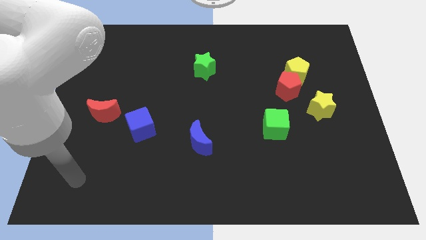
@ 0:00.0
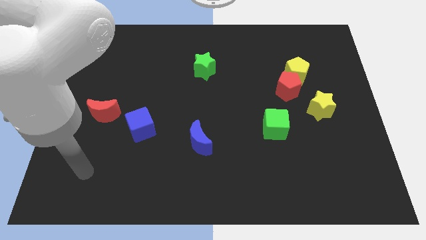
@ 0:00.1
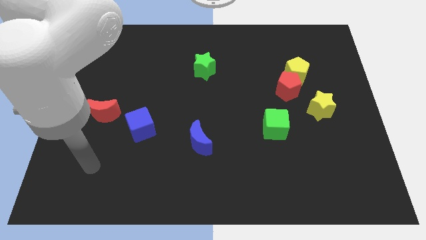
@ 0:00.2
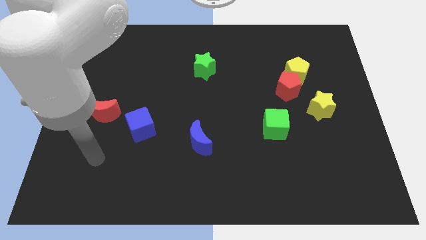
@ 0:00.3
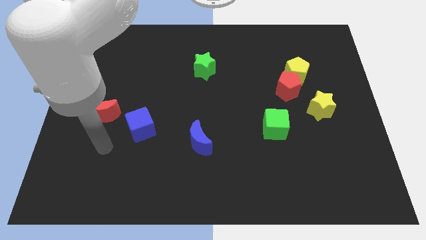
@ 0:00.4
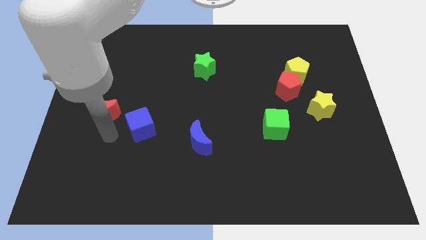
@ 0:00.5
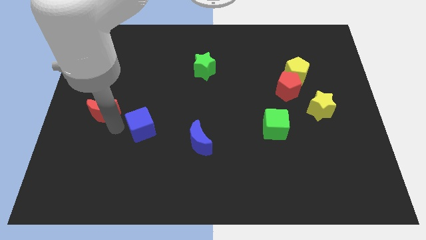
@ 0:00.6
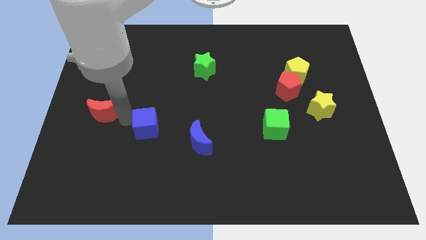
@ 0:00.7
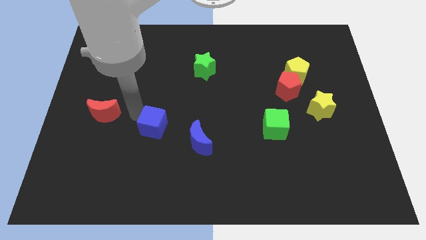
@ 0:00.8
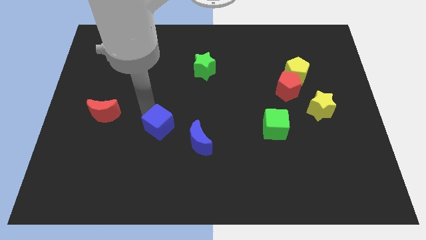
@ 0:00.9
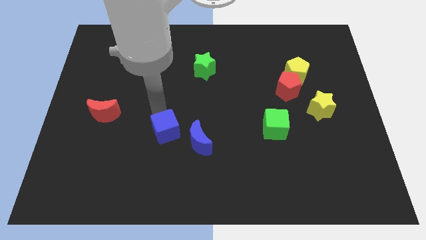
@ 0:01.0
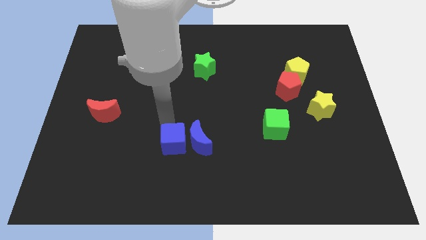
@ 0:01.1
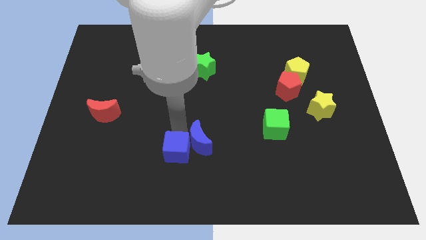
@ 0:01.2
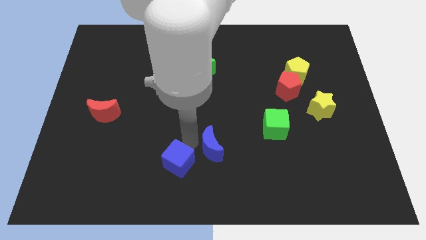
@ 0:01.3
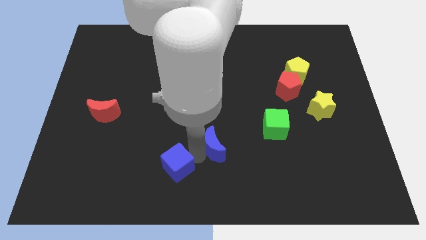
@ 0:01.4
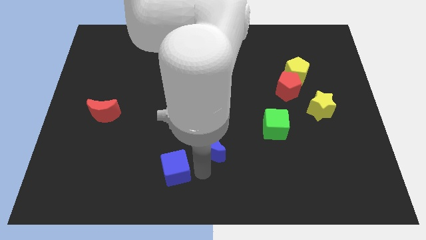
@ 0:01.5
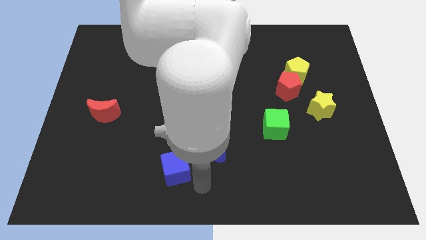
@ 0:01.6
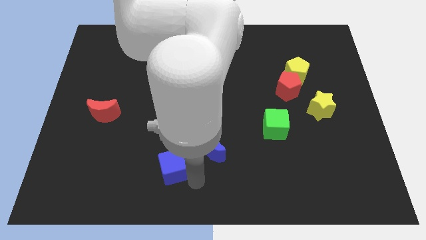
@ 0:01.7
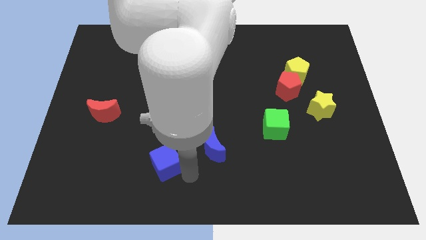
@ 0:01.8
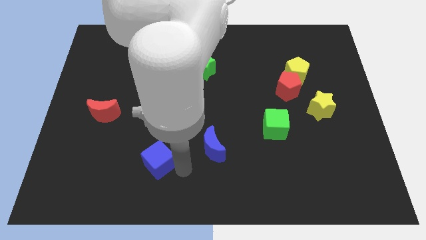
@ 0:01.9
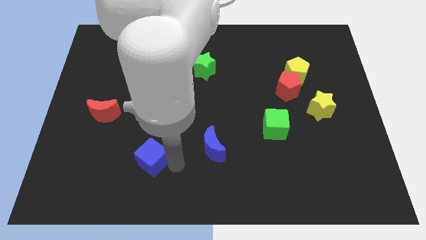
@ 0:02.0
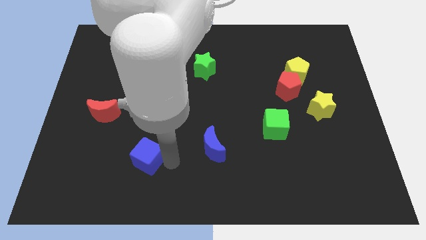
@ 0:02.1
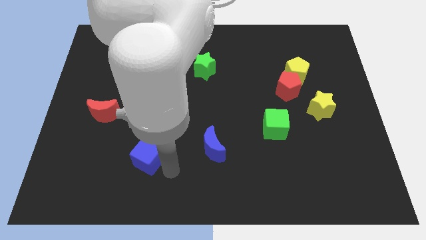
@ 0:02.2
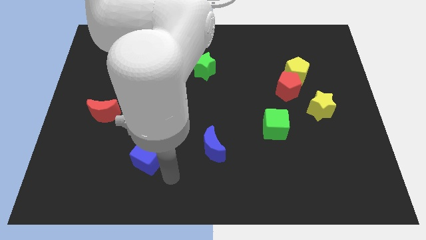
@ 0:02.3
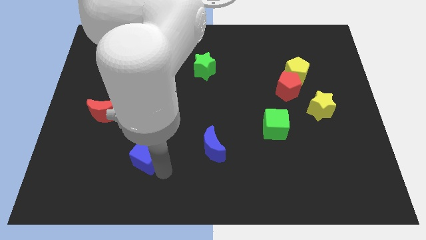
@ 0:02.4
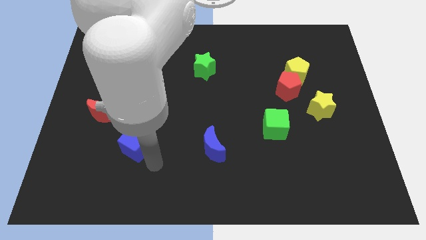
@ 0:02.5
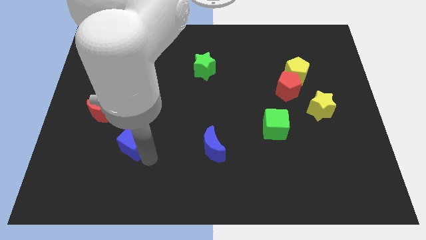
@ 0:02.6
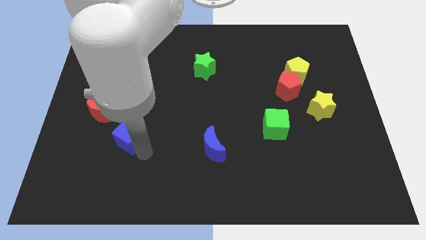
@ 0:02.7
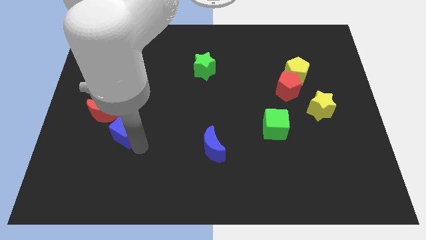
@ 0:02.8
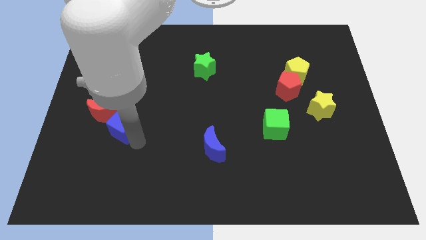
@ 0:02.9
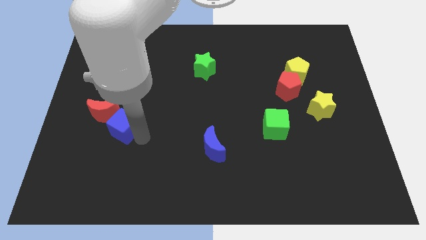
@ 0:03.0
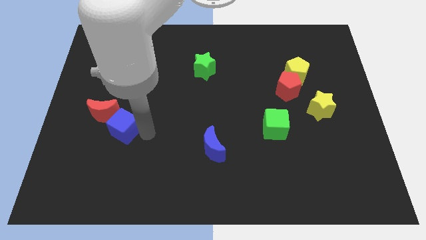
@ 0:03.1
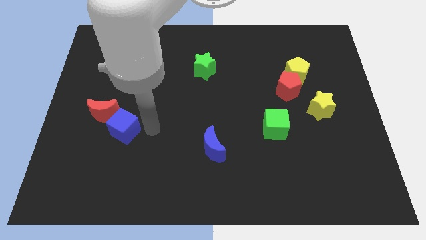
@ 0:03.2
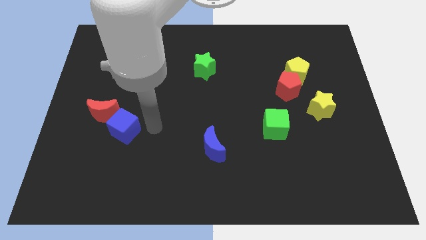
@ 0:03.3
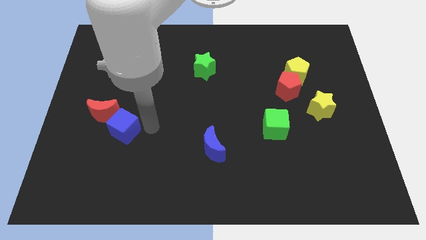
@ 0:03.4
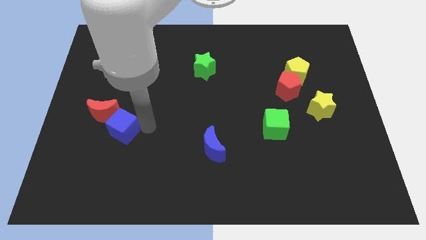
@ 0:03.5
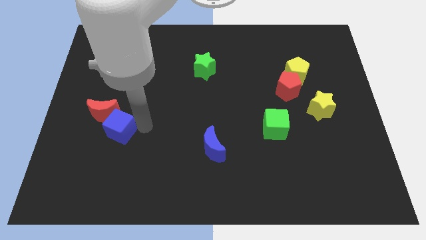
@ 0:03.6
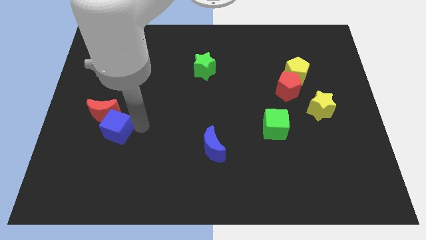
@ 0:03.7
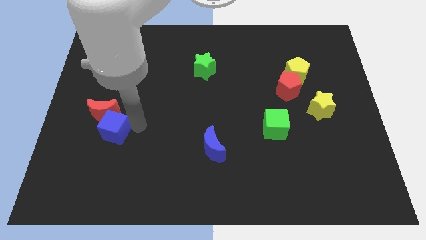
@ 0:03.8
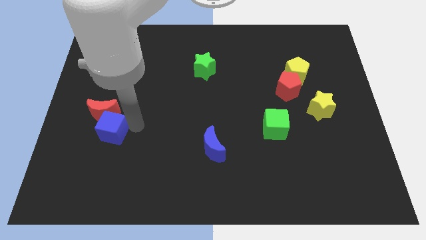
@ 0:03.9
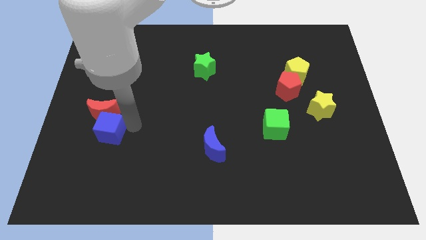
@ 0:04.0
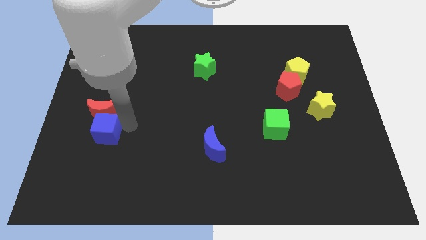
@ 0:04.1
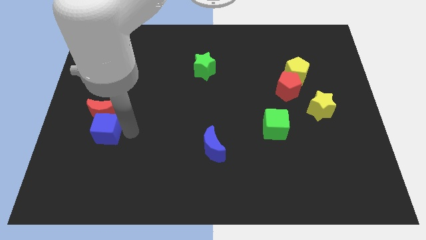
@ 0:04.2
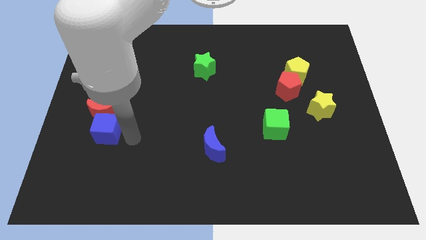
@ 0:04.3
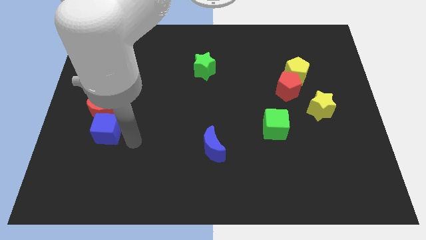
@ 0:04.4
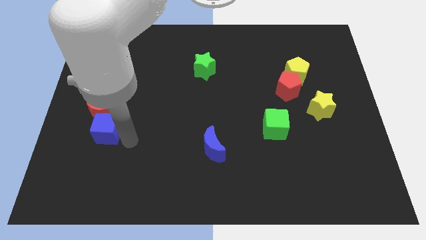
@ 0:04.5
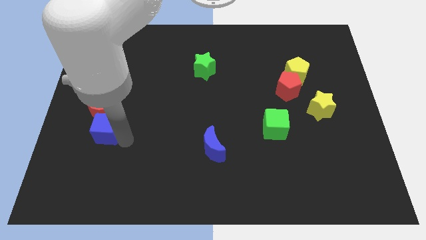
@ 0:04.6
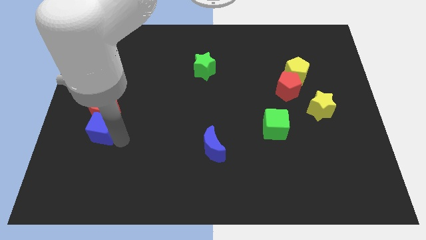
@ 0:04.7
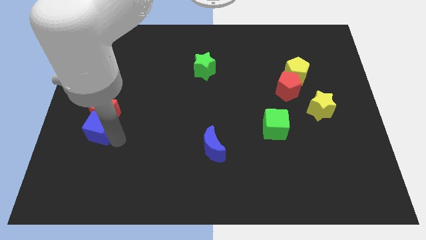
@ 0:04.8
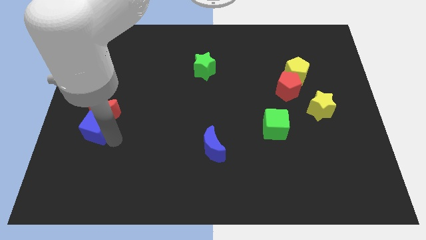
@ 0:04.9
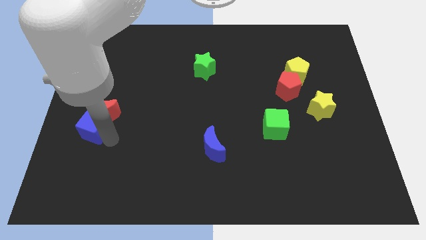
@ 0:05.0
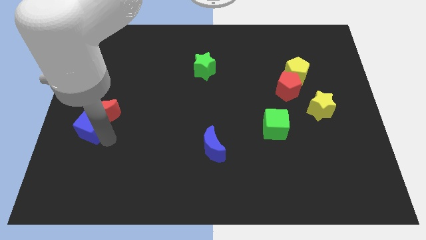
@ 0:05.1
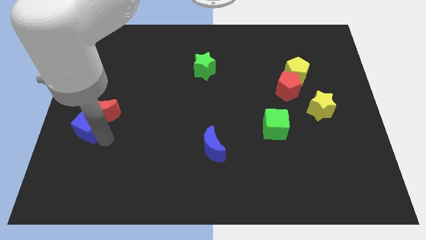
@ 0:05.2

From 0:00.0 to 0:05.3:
push the blue cube to the left side of the board

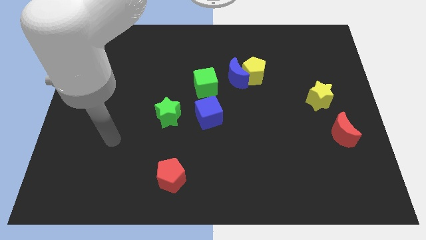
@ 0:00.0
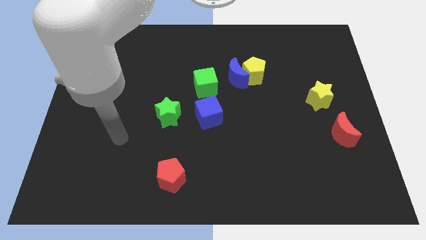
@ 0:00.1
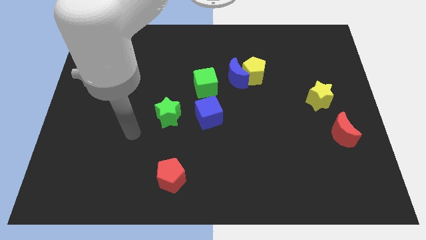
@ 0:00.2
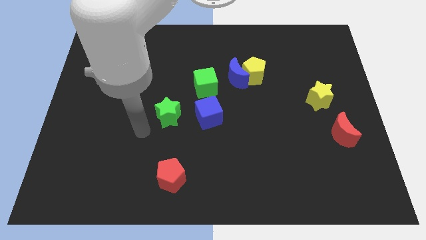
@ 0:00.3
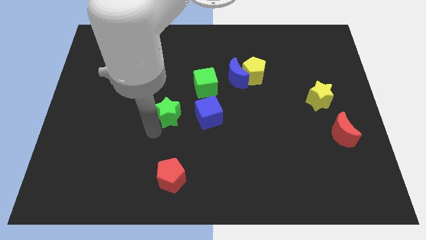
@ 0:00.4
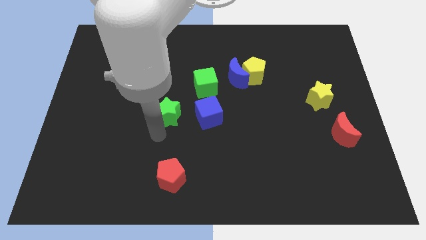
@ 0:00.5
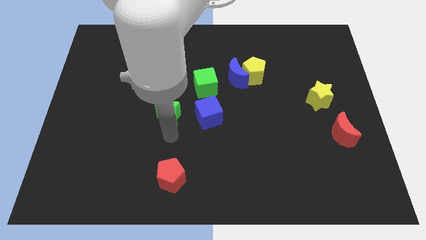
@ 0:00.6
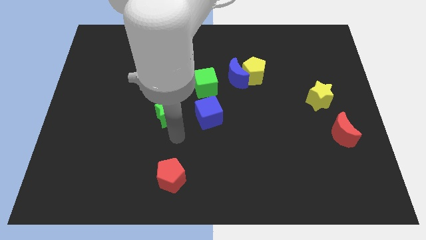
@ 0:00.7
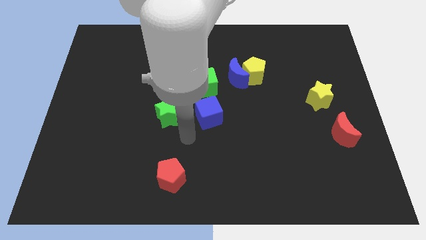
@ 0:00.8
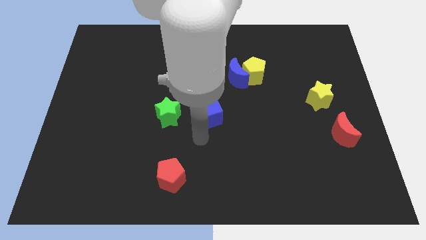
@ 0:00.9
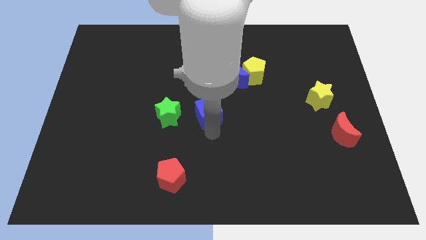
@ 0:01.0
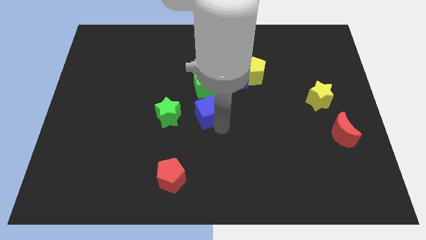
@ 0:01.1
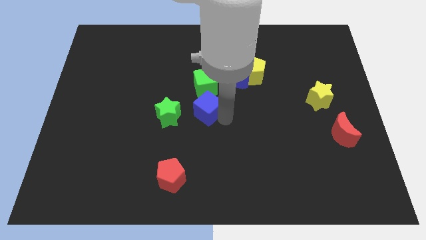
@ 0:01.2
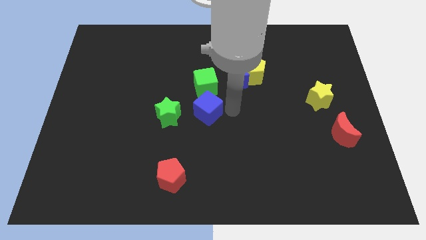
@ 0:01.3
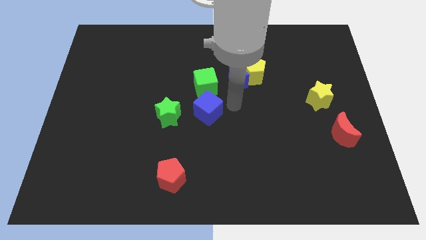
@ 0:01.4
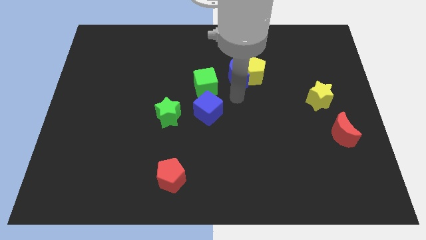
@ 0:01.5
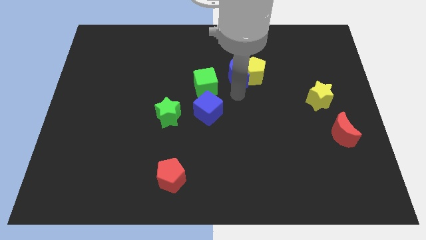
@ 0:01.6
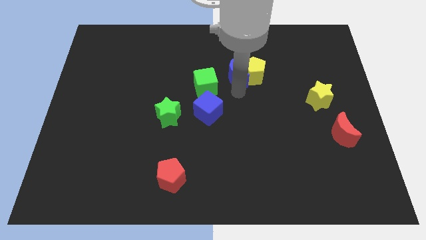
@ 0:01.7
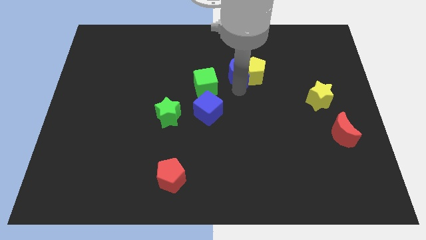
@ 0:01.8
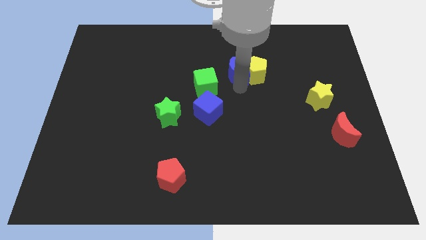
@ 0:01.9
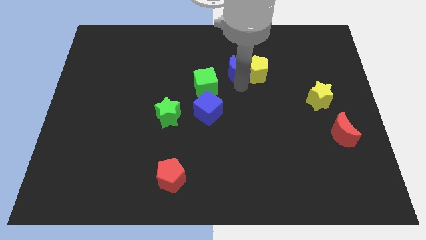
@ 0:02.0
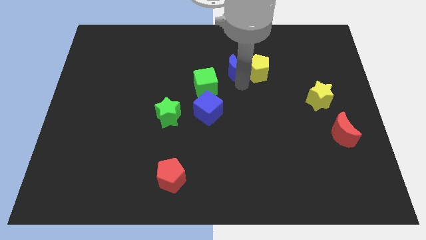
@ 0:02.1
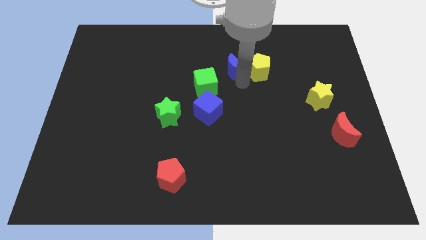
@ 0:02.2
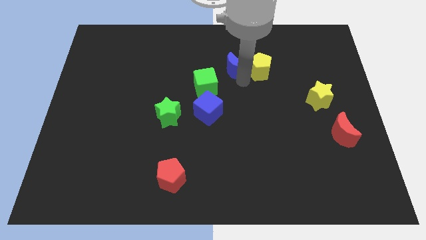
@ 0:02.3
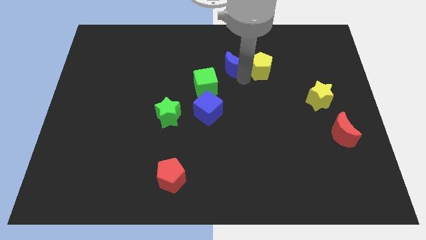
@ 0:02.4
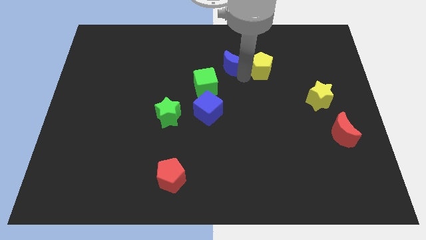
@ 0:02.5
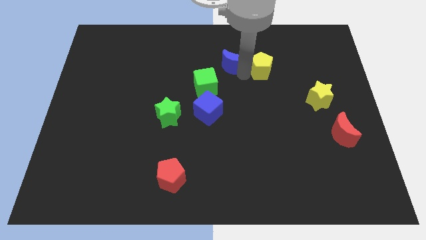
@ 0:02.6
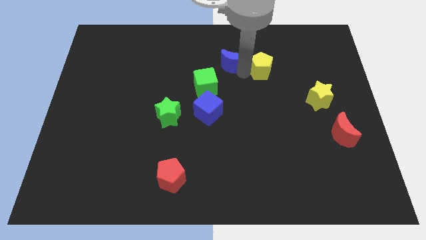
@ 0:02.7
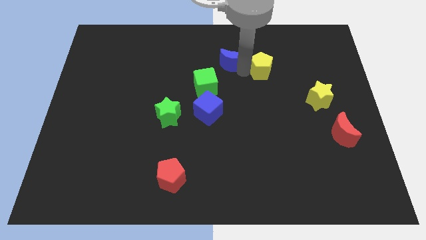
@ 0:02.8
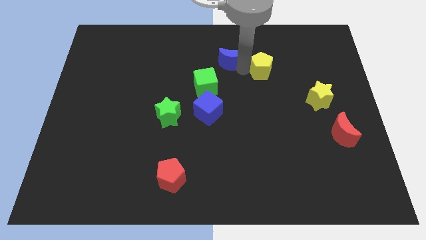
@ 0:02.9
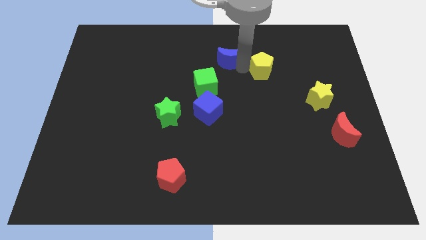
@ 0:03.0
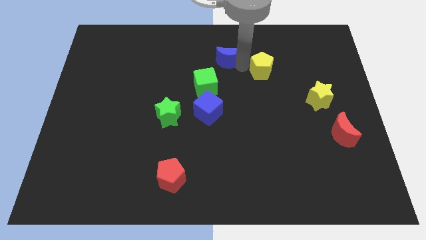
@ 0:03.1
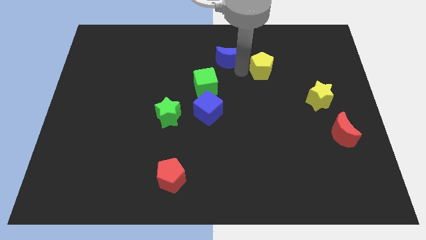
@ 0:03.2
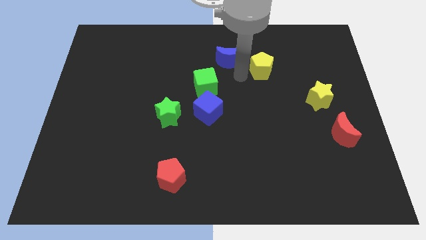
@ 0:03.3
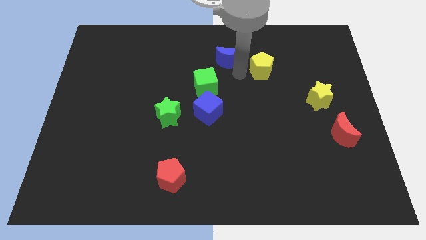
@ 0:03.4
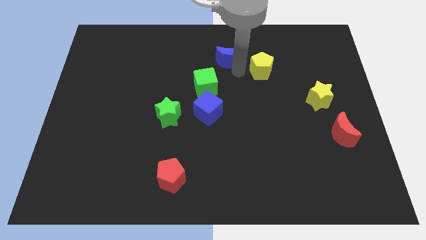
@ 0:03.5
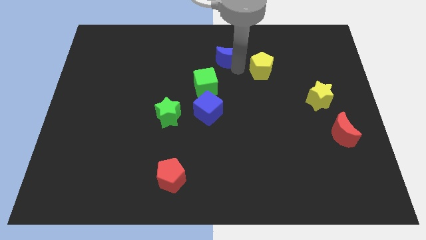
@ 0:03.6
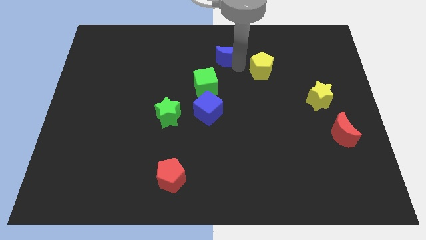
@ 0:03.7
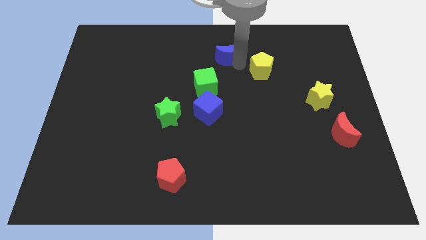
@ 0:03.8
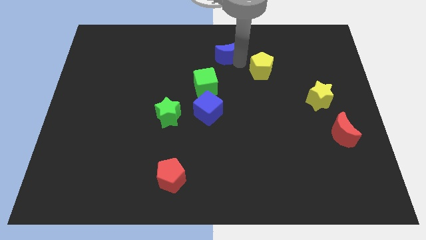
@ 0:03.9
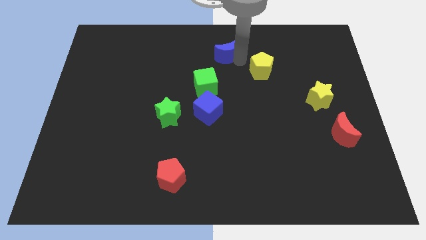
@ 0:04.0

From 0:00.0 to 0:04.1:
move the blue moon to the towards your base
